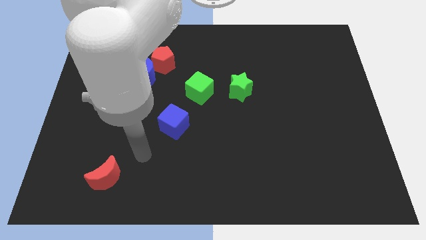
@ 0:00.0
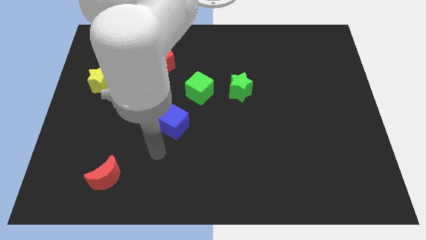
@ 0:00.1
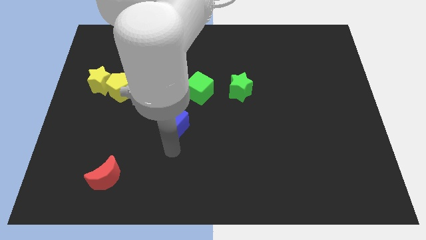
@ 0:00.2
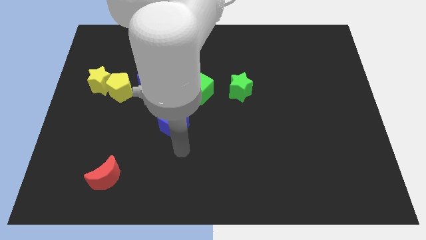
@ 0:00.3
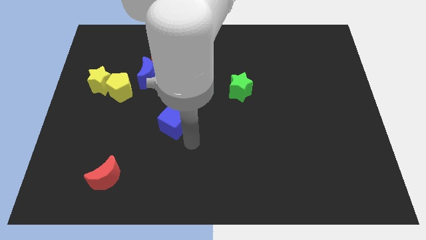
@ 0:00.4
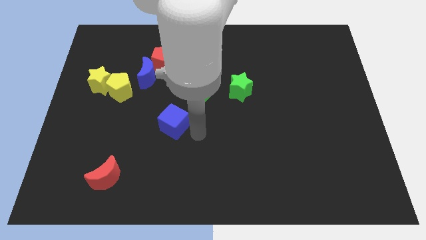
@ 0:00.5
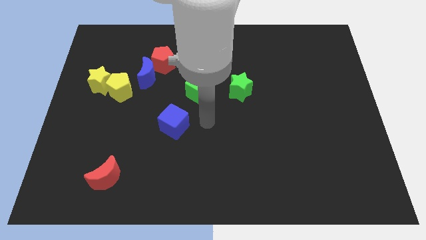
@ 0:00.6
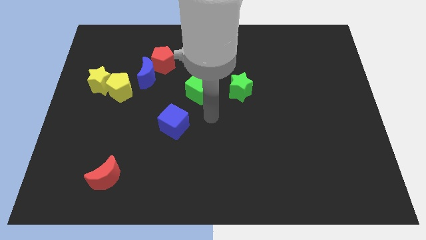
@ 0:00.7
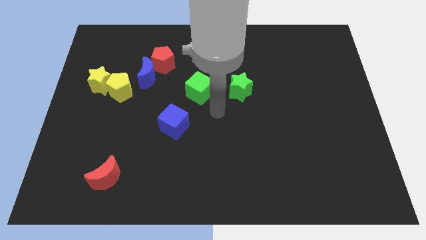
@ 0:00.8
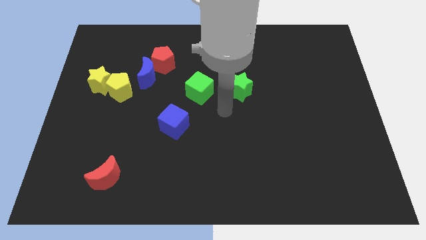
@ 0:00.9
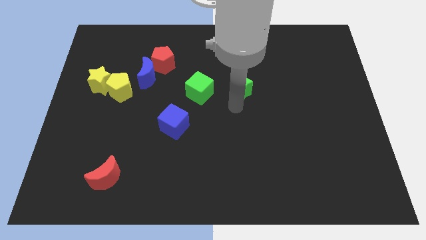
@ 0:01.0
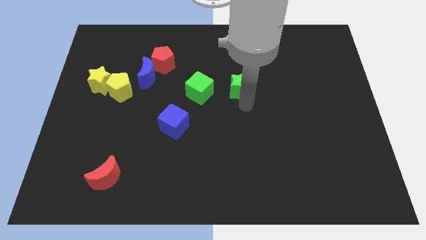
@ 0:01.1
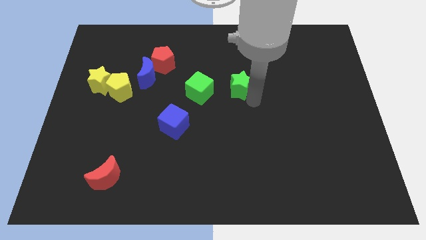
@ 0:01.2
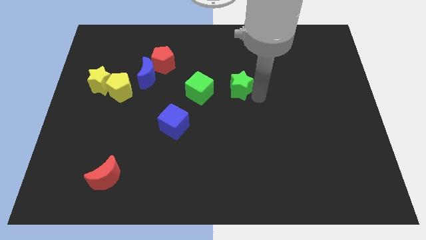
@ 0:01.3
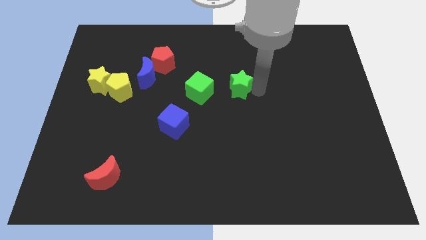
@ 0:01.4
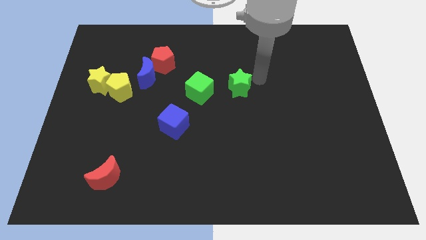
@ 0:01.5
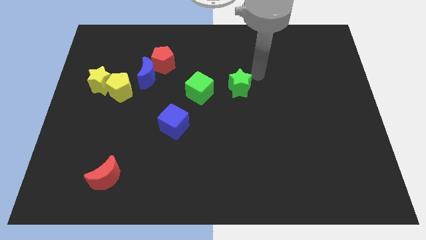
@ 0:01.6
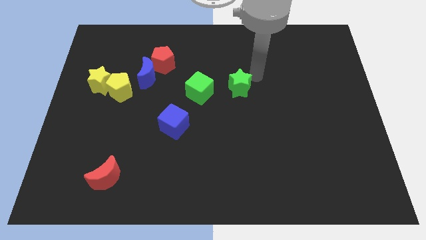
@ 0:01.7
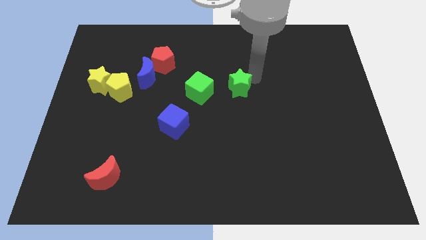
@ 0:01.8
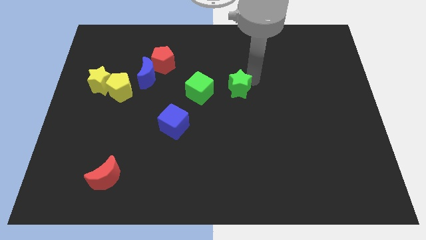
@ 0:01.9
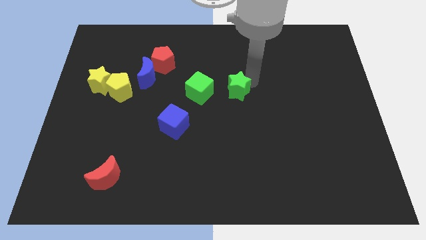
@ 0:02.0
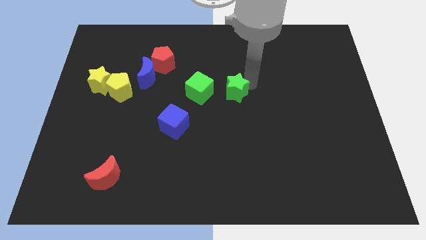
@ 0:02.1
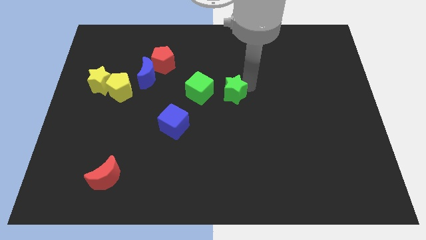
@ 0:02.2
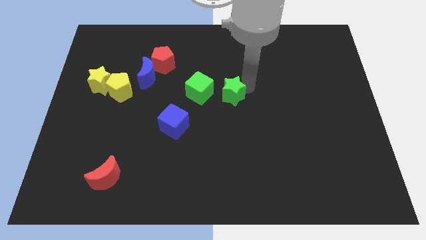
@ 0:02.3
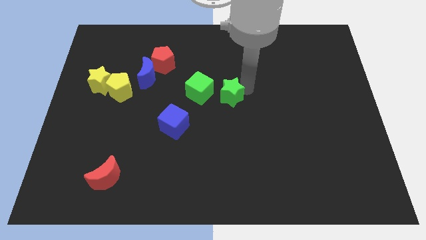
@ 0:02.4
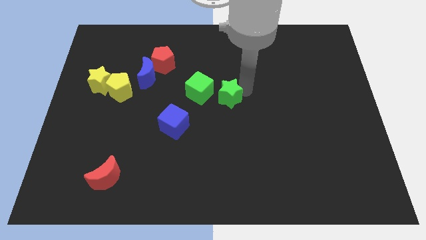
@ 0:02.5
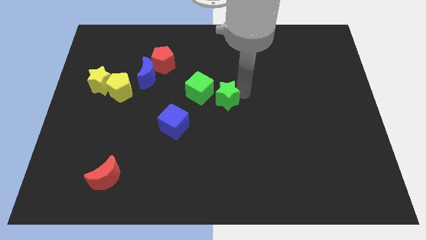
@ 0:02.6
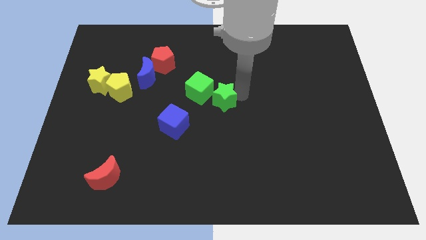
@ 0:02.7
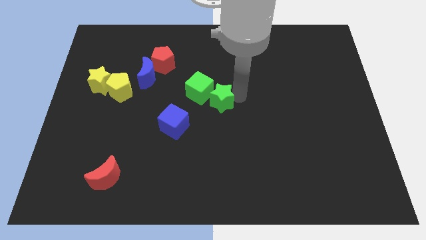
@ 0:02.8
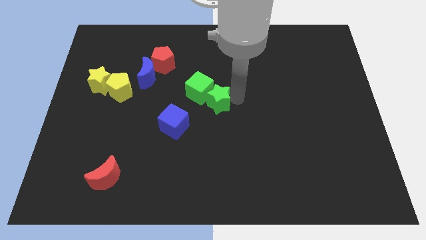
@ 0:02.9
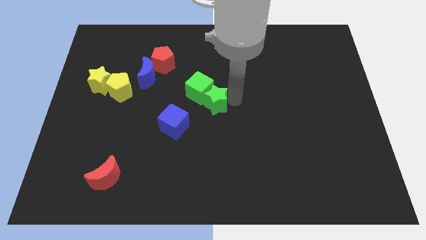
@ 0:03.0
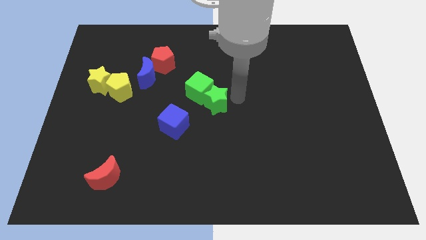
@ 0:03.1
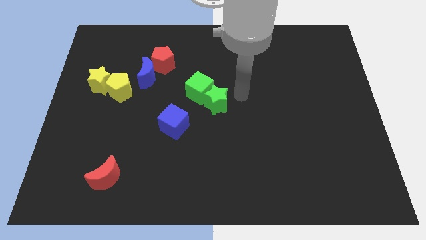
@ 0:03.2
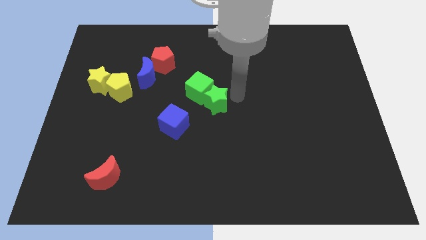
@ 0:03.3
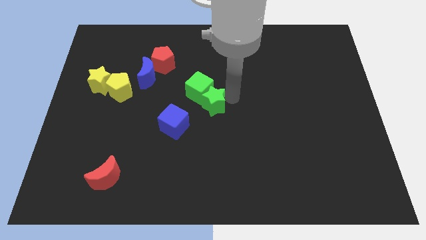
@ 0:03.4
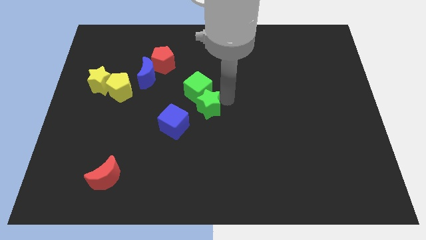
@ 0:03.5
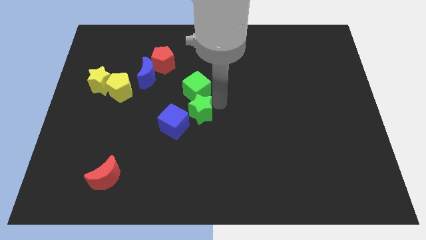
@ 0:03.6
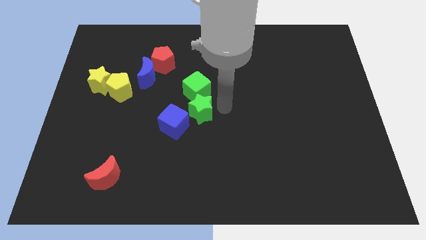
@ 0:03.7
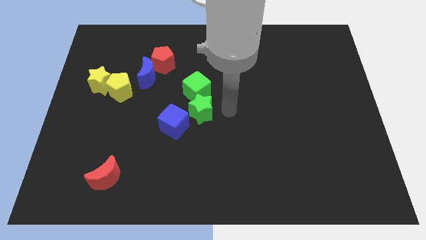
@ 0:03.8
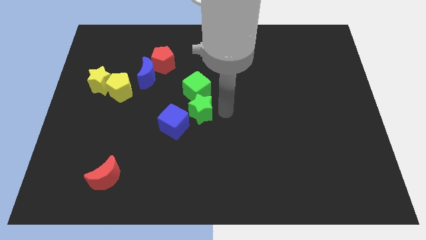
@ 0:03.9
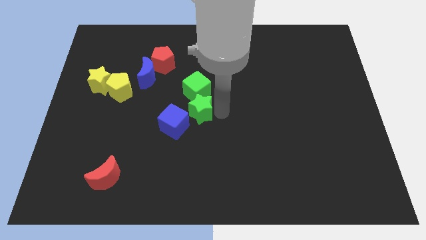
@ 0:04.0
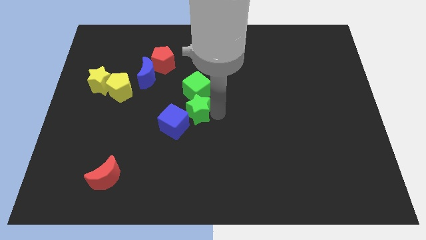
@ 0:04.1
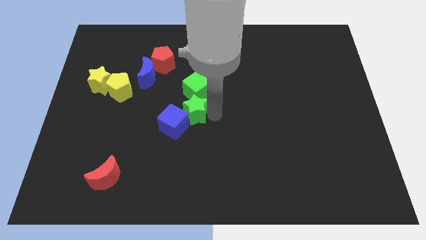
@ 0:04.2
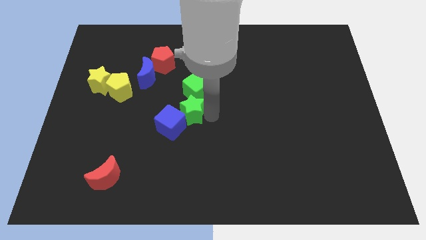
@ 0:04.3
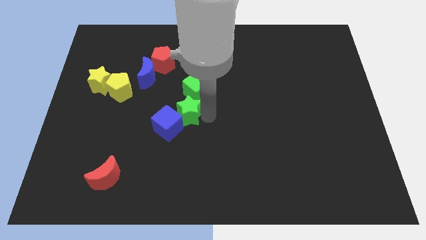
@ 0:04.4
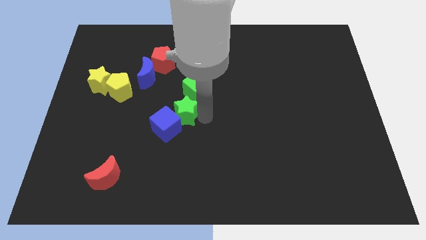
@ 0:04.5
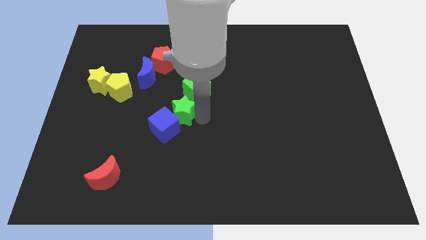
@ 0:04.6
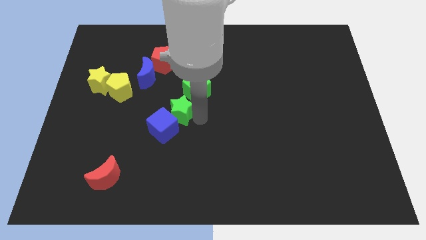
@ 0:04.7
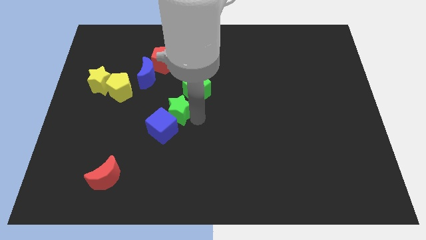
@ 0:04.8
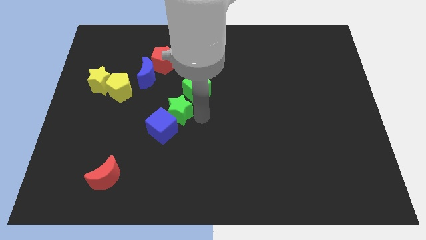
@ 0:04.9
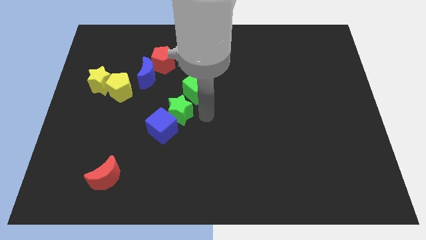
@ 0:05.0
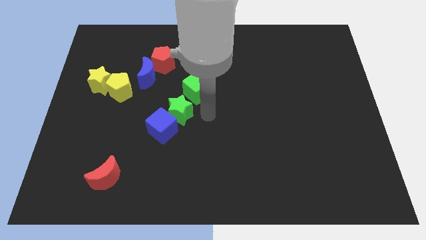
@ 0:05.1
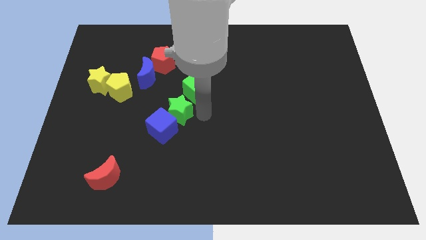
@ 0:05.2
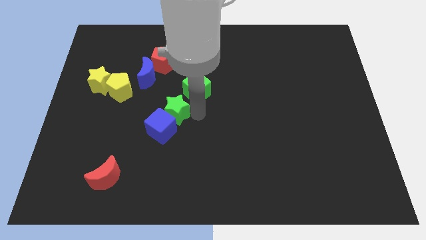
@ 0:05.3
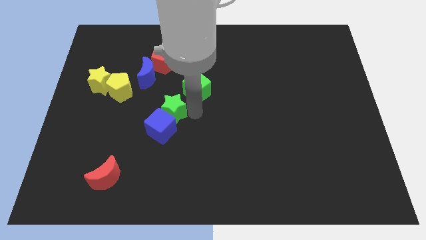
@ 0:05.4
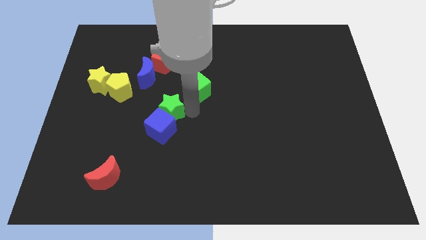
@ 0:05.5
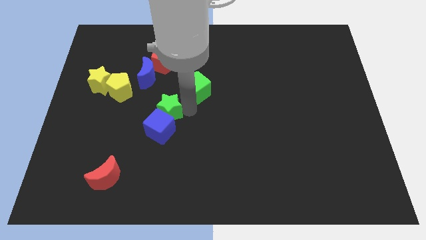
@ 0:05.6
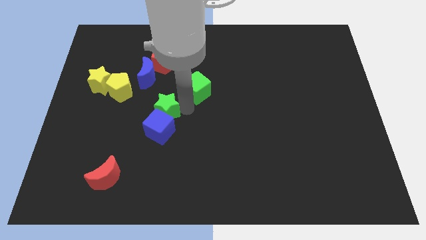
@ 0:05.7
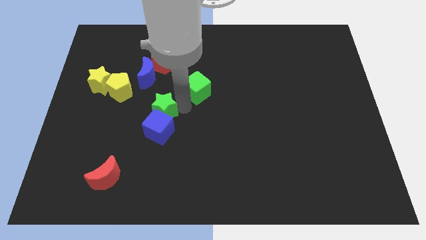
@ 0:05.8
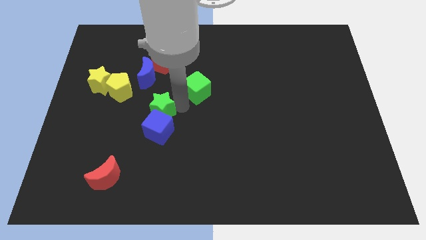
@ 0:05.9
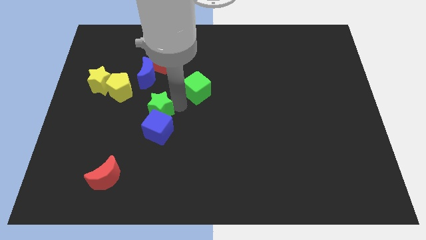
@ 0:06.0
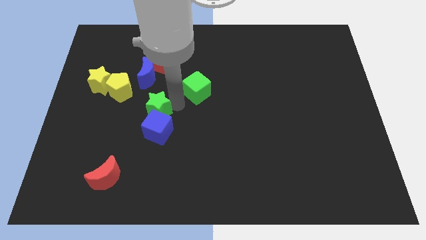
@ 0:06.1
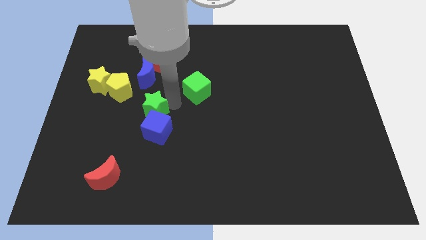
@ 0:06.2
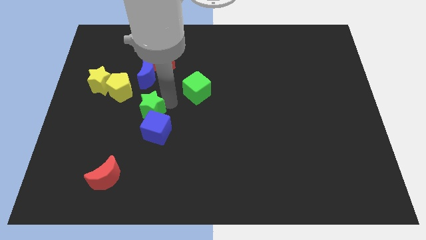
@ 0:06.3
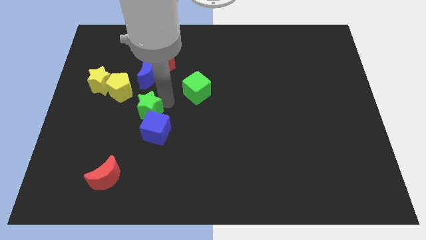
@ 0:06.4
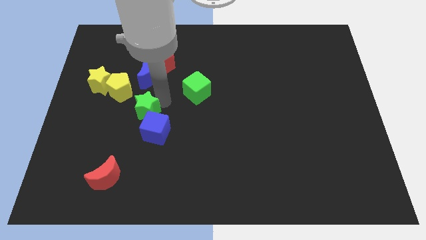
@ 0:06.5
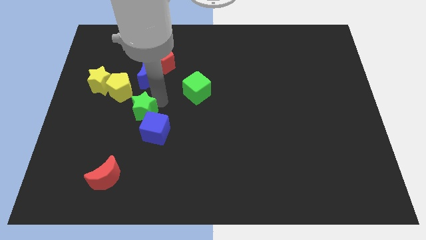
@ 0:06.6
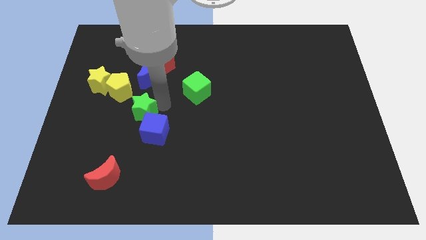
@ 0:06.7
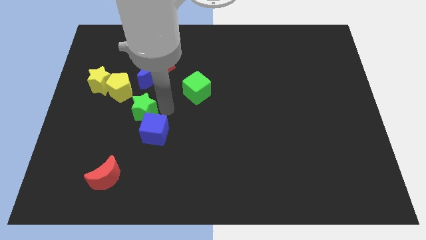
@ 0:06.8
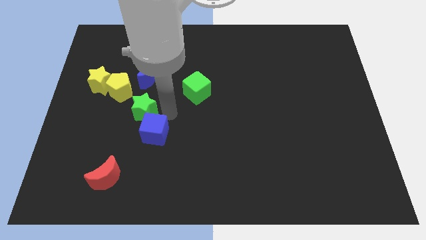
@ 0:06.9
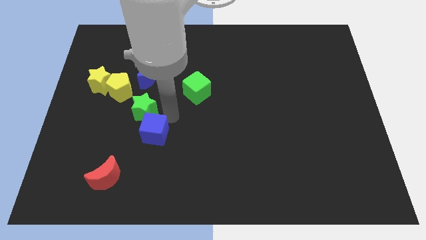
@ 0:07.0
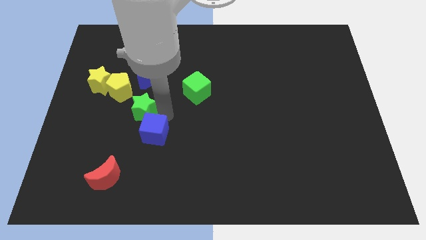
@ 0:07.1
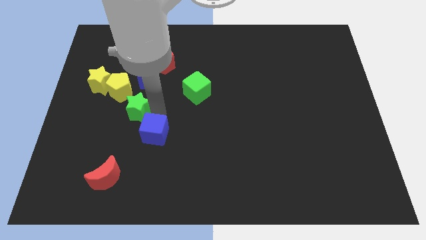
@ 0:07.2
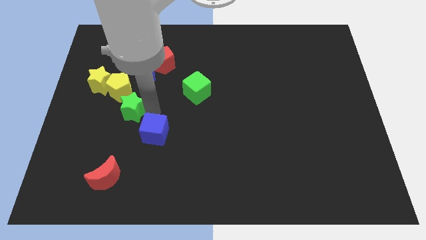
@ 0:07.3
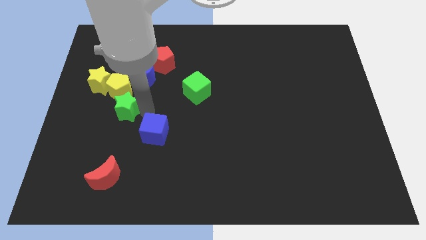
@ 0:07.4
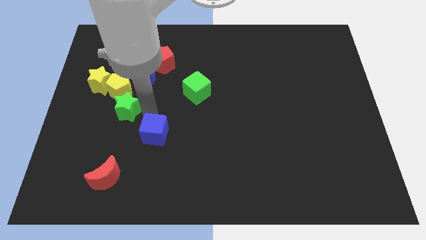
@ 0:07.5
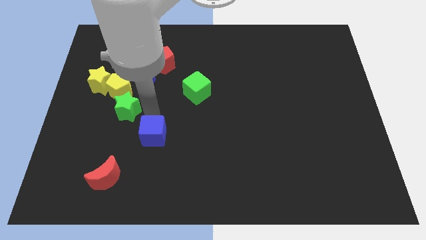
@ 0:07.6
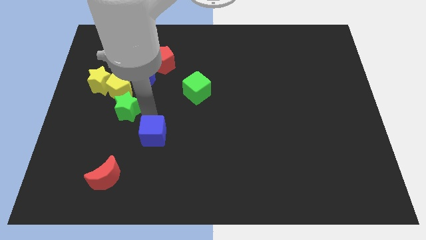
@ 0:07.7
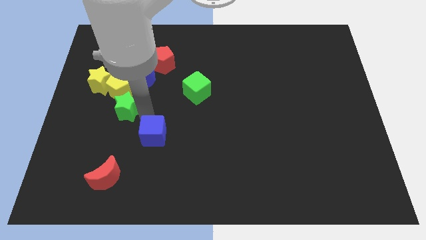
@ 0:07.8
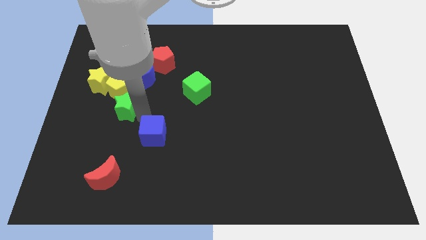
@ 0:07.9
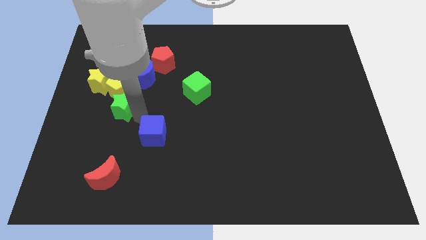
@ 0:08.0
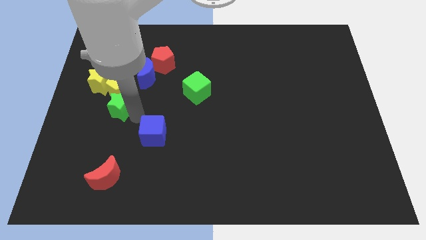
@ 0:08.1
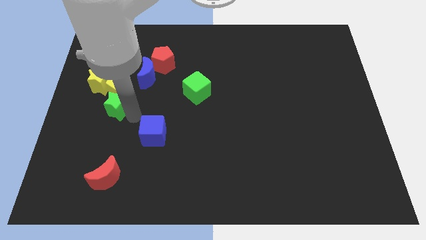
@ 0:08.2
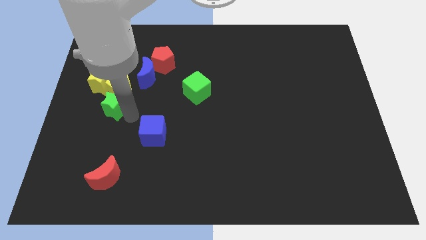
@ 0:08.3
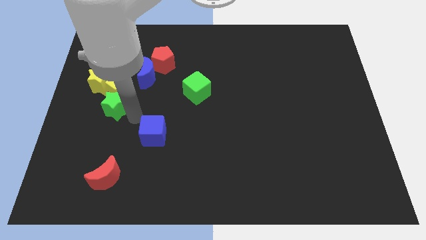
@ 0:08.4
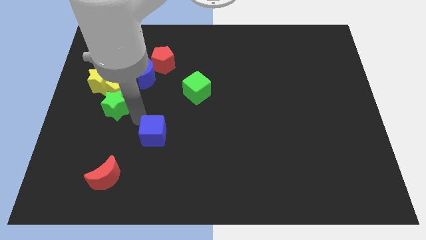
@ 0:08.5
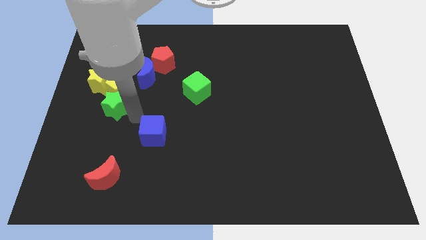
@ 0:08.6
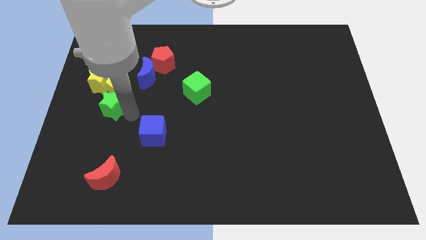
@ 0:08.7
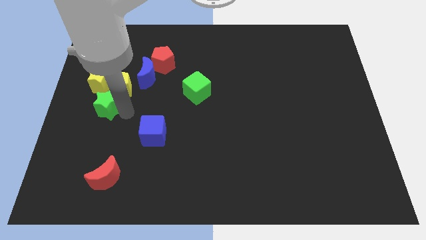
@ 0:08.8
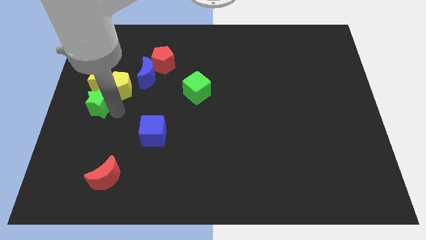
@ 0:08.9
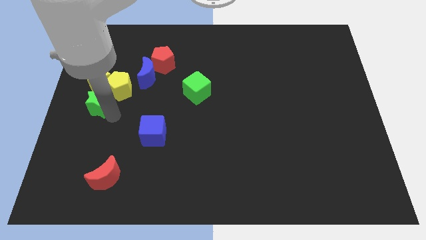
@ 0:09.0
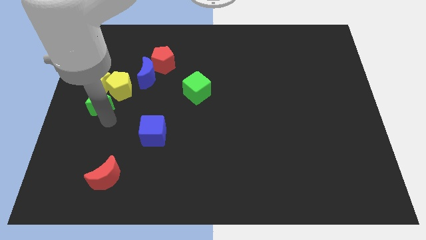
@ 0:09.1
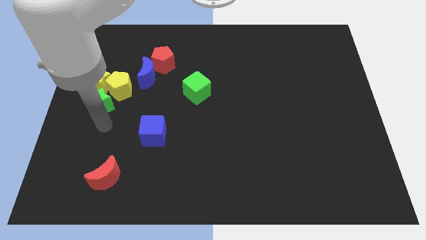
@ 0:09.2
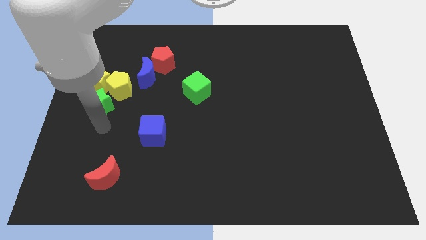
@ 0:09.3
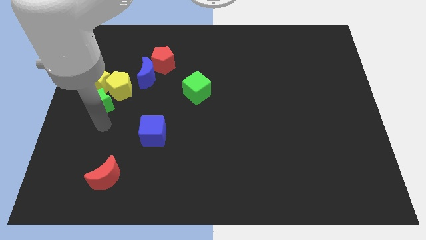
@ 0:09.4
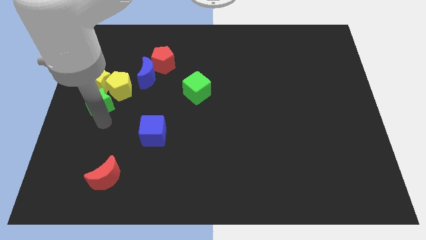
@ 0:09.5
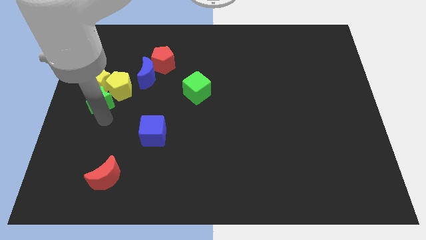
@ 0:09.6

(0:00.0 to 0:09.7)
slide the green star towards the yellow star
